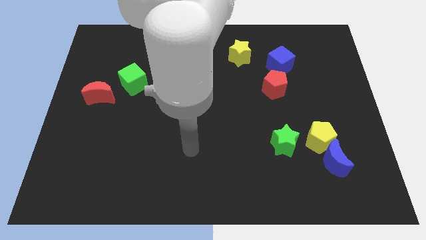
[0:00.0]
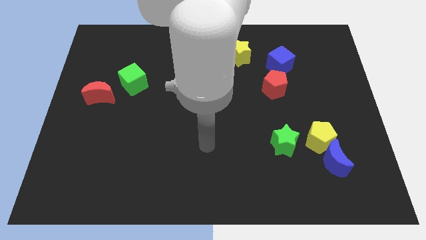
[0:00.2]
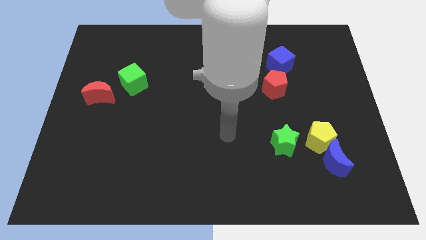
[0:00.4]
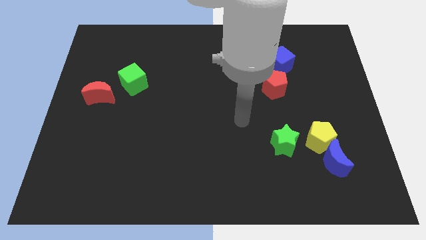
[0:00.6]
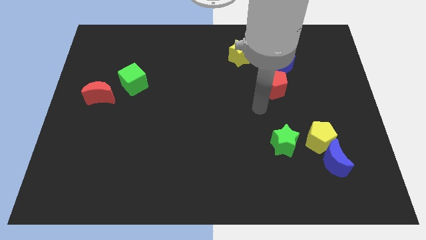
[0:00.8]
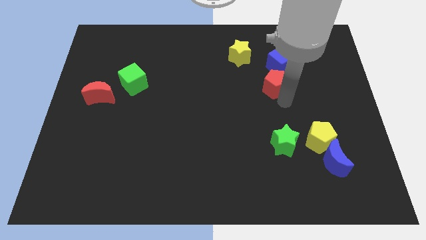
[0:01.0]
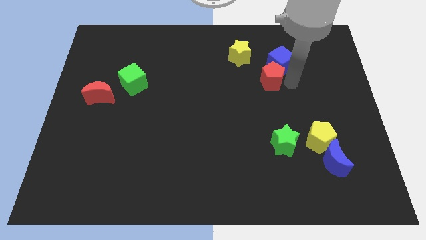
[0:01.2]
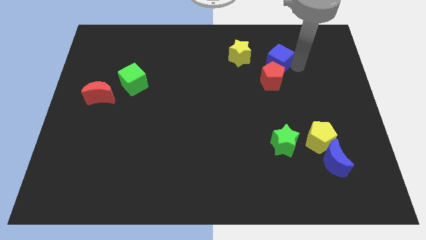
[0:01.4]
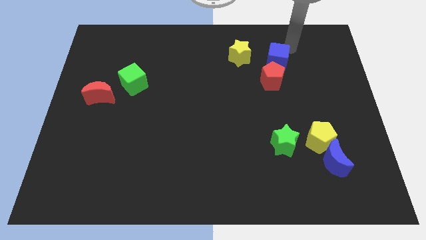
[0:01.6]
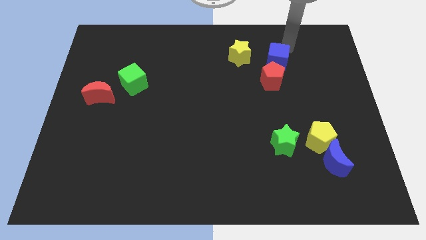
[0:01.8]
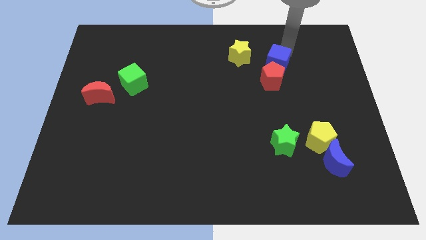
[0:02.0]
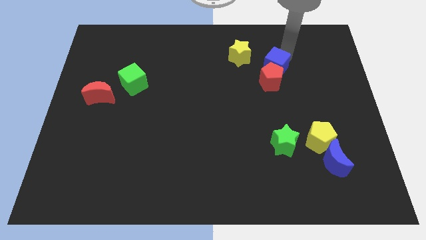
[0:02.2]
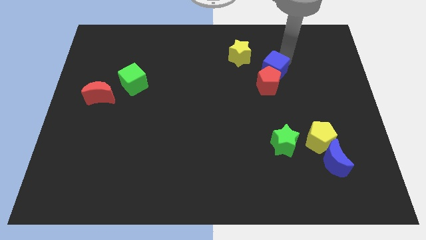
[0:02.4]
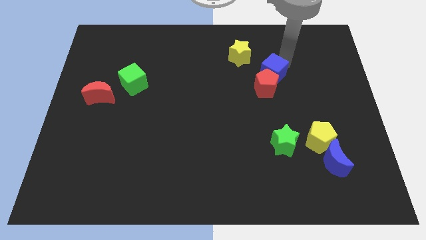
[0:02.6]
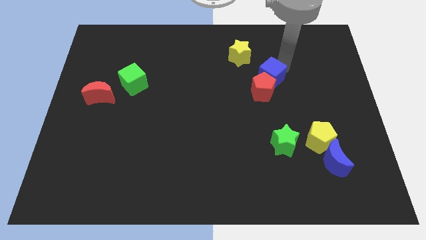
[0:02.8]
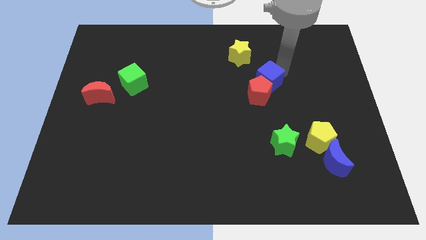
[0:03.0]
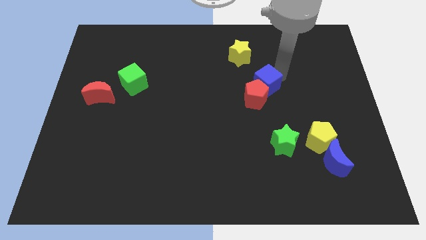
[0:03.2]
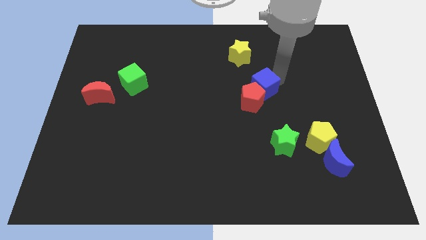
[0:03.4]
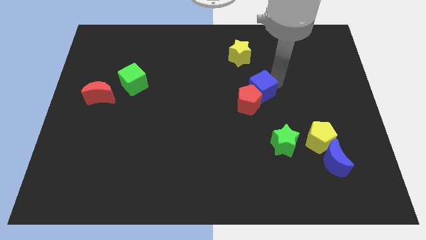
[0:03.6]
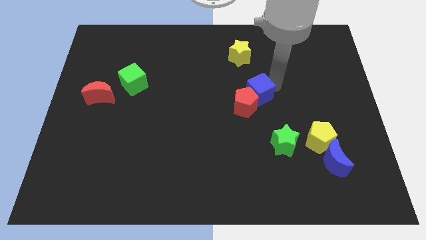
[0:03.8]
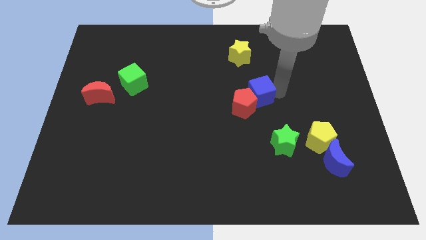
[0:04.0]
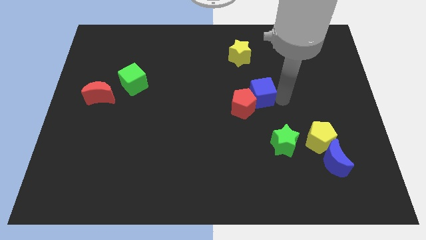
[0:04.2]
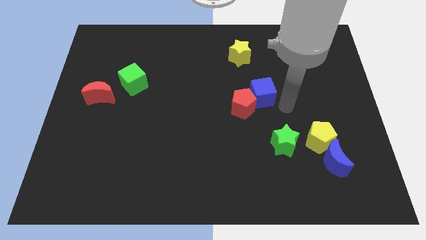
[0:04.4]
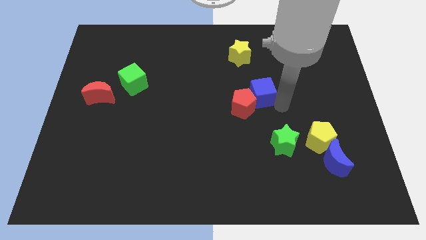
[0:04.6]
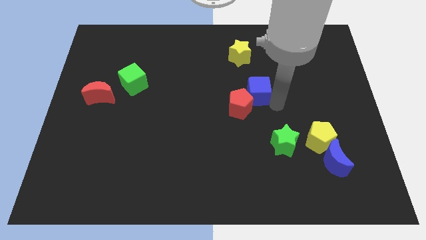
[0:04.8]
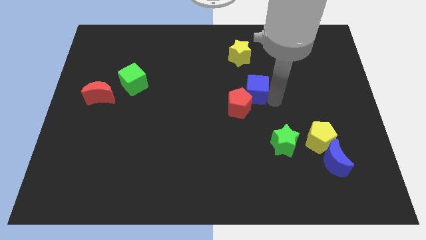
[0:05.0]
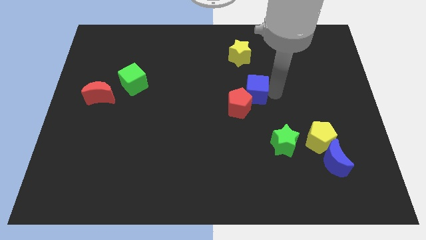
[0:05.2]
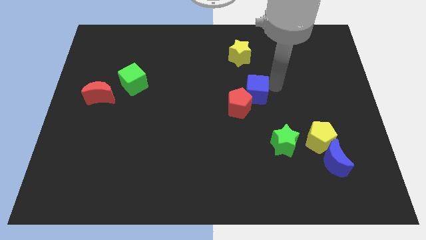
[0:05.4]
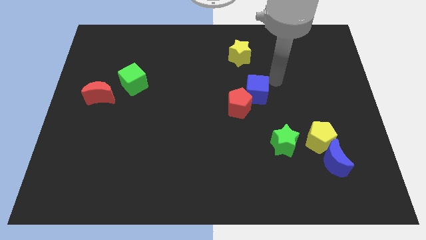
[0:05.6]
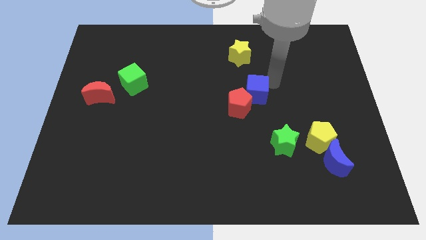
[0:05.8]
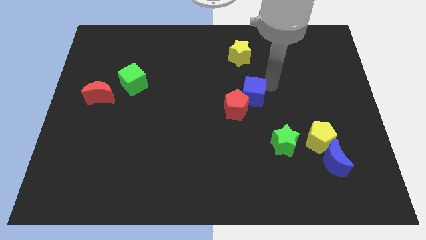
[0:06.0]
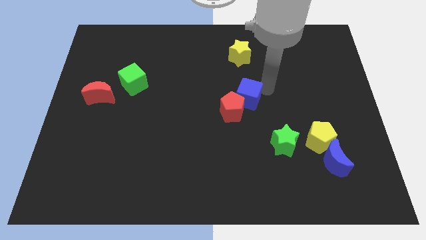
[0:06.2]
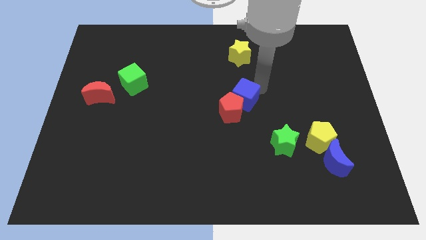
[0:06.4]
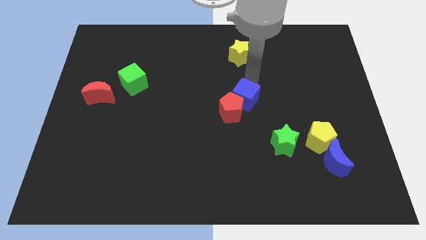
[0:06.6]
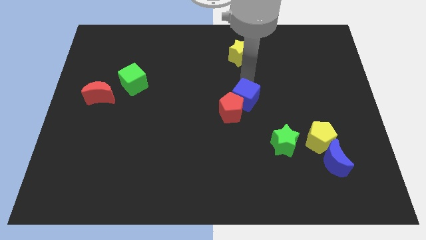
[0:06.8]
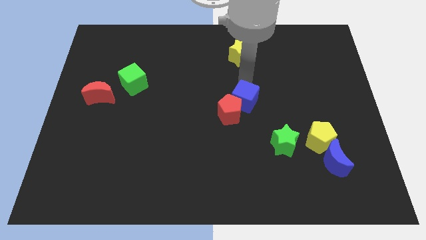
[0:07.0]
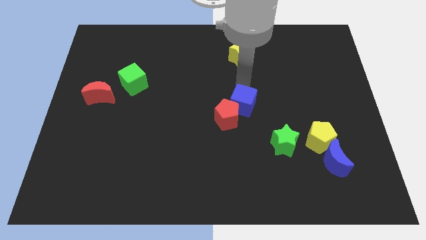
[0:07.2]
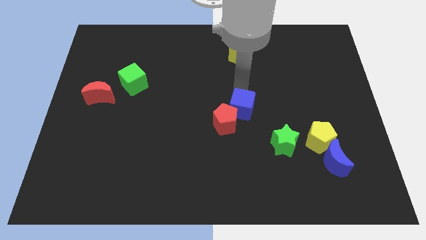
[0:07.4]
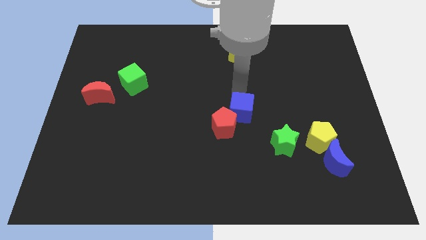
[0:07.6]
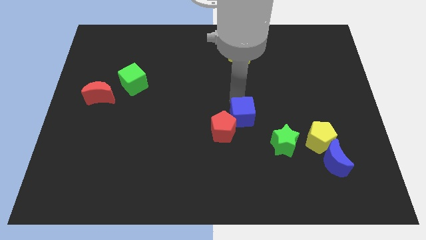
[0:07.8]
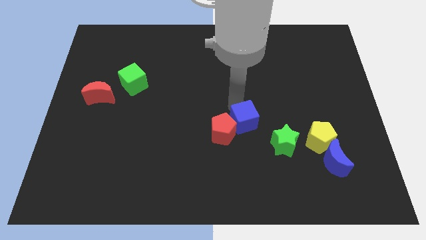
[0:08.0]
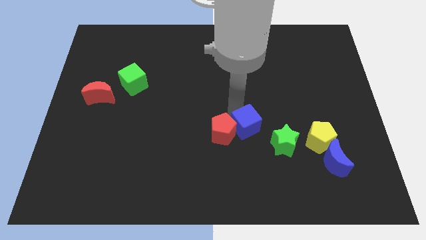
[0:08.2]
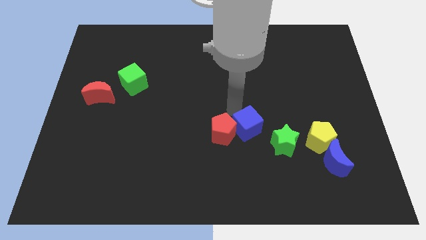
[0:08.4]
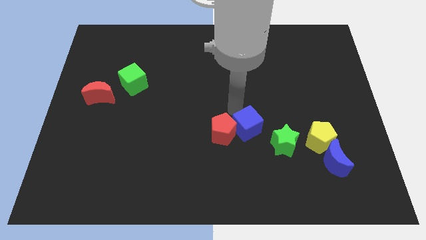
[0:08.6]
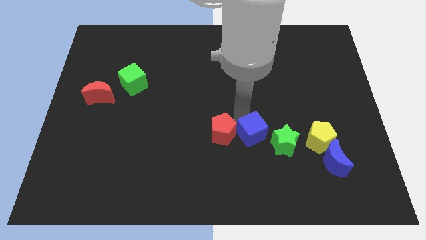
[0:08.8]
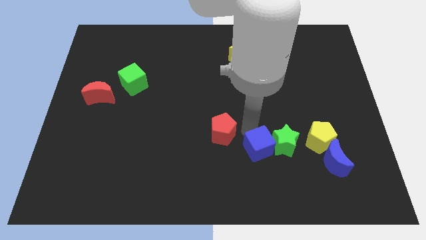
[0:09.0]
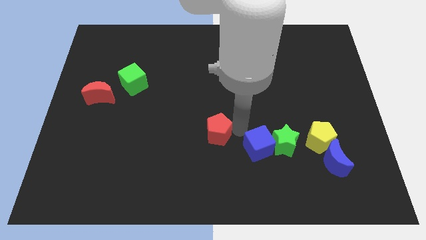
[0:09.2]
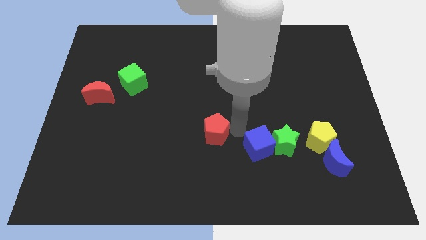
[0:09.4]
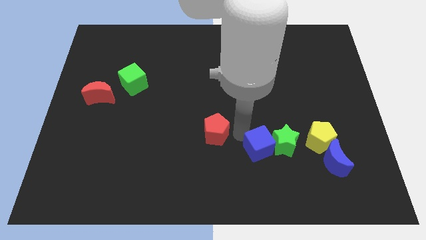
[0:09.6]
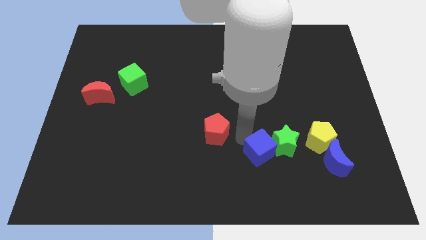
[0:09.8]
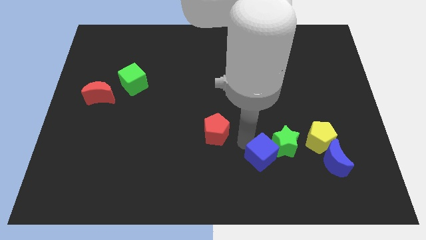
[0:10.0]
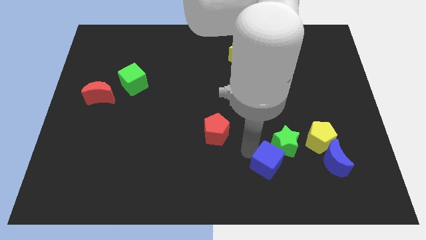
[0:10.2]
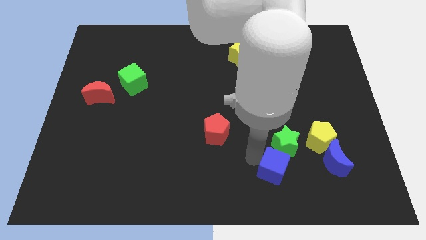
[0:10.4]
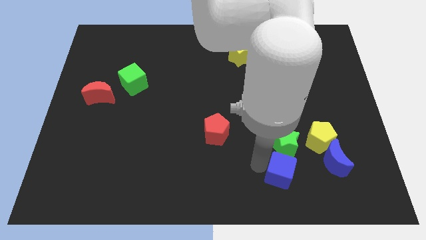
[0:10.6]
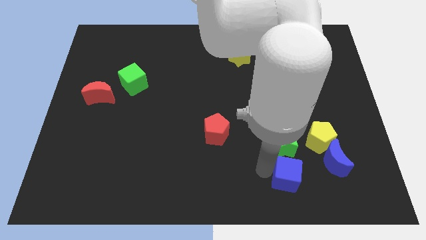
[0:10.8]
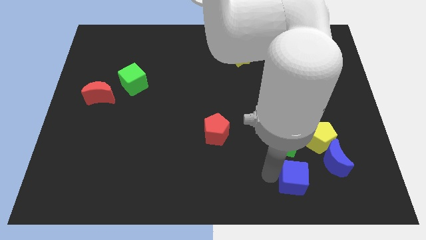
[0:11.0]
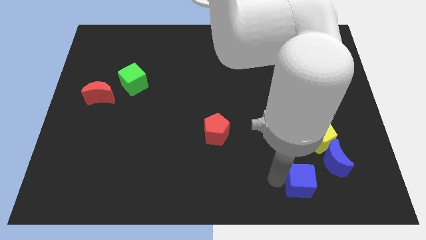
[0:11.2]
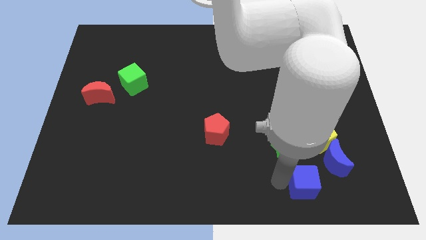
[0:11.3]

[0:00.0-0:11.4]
put the blue cube to the bottom right side of the green star

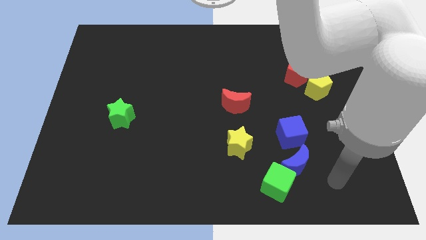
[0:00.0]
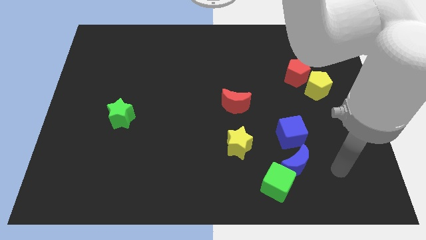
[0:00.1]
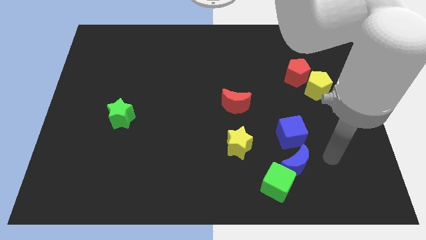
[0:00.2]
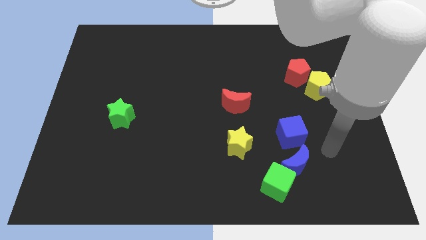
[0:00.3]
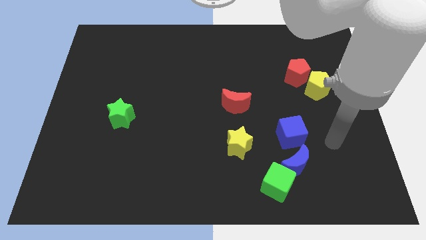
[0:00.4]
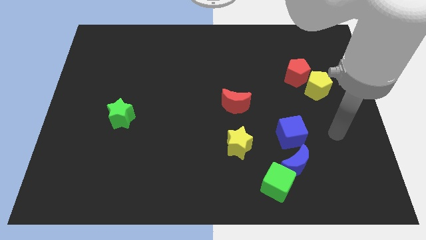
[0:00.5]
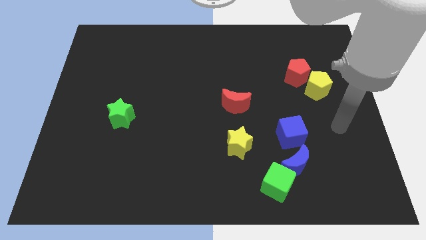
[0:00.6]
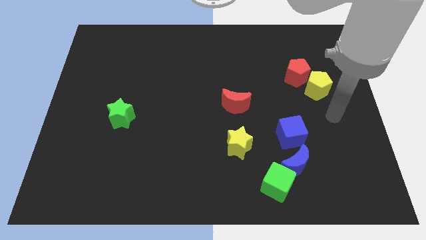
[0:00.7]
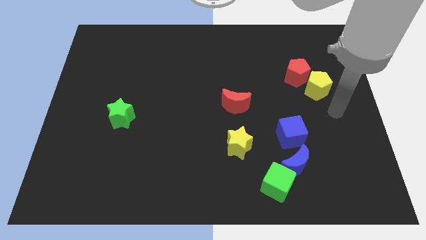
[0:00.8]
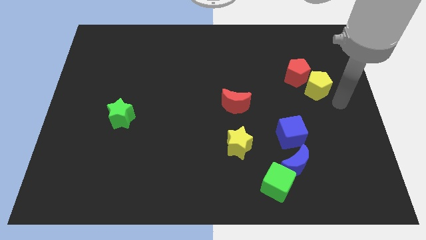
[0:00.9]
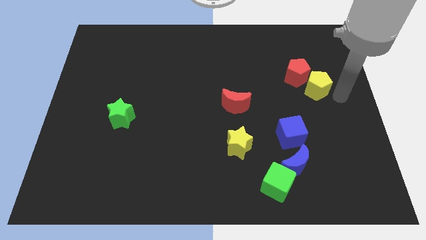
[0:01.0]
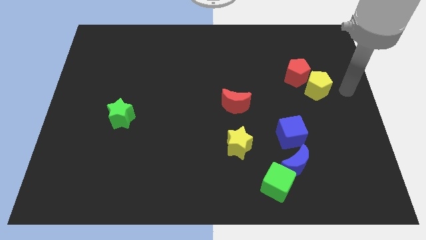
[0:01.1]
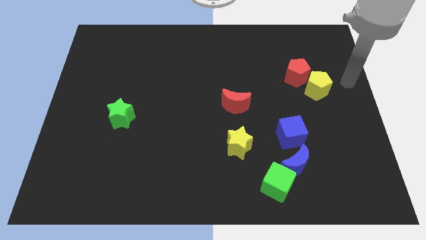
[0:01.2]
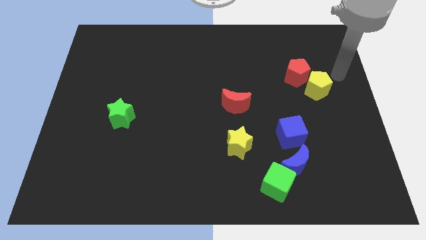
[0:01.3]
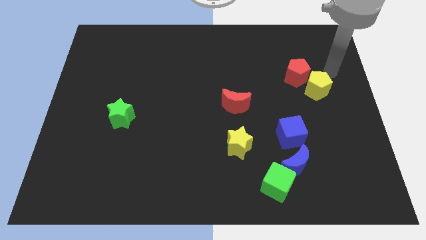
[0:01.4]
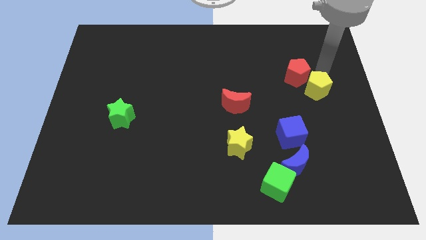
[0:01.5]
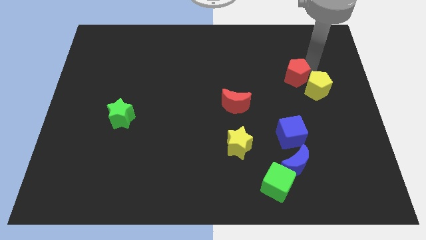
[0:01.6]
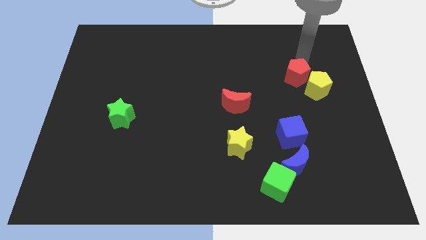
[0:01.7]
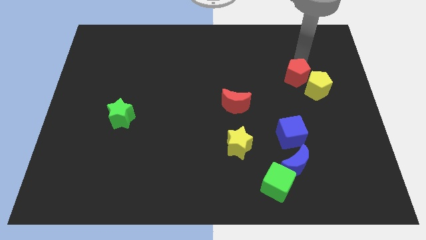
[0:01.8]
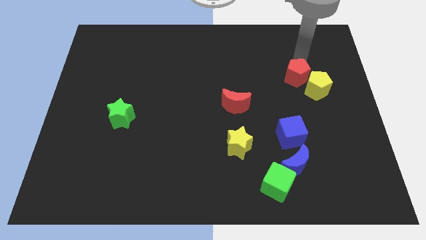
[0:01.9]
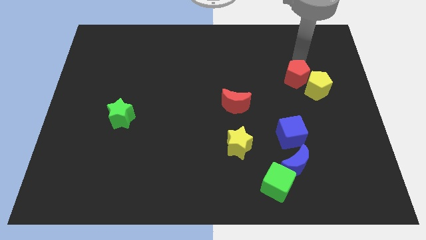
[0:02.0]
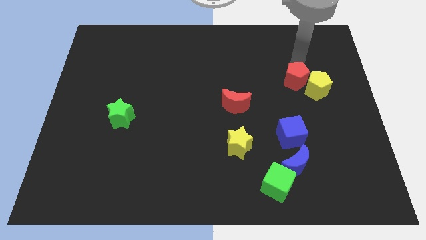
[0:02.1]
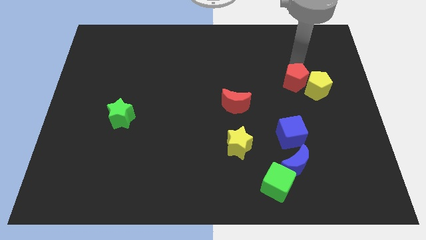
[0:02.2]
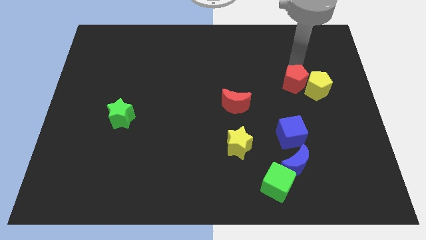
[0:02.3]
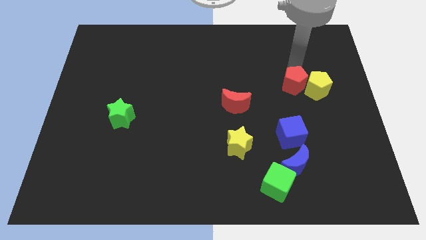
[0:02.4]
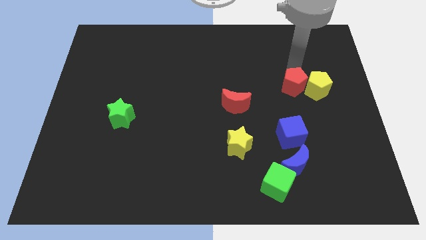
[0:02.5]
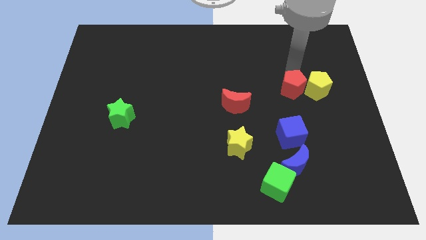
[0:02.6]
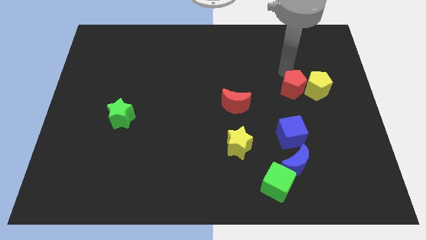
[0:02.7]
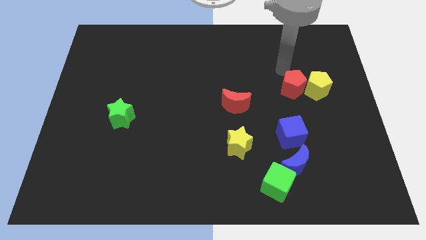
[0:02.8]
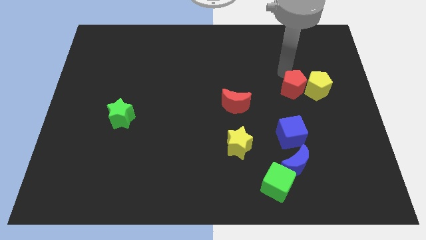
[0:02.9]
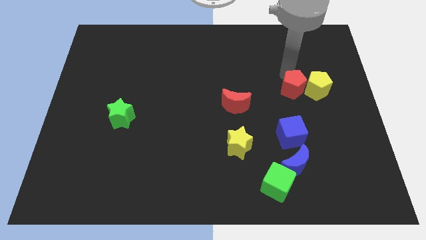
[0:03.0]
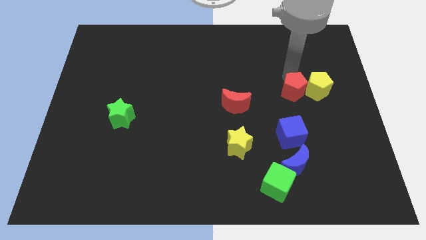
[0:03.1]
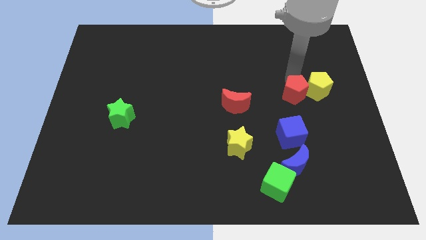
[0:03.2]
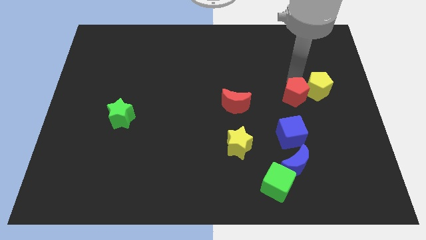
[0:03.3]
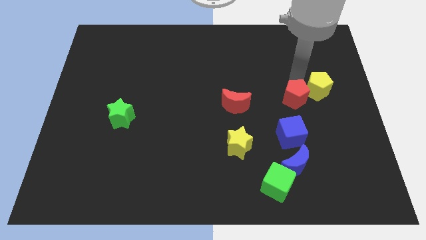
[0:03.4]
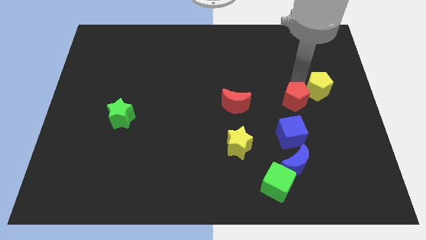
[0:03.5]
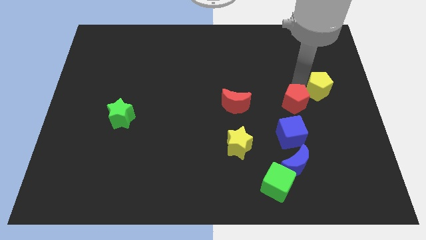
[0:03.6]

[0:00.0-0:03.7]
slide the red pentagon diagonally up and to the right of the blue cube
